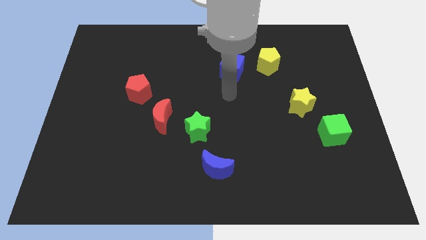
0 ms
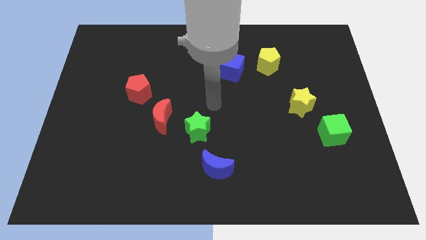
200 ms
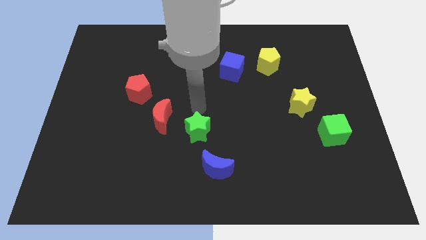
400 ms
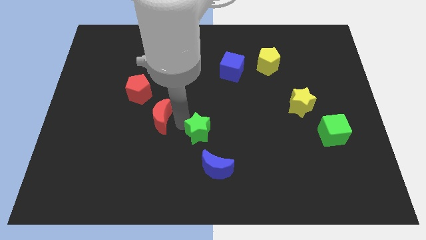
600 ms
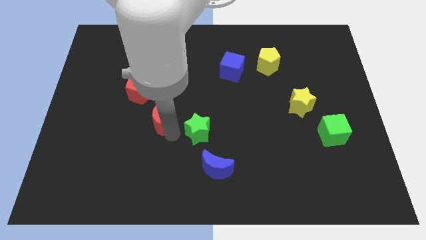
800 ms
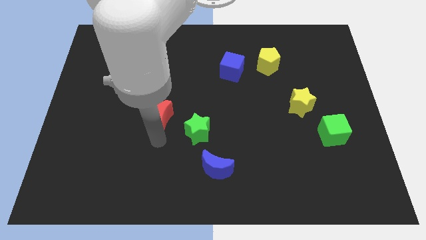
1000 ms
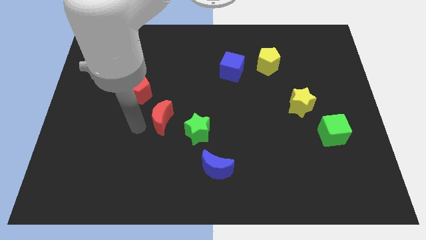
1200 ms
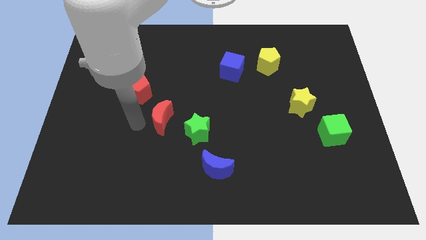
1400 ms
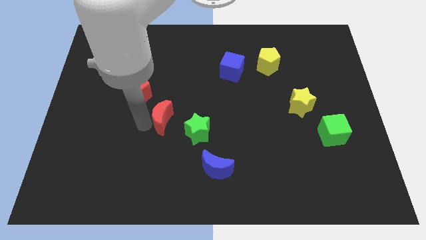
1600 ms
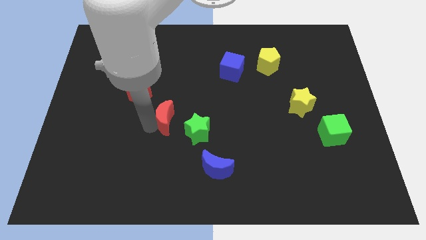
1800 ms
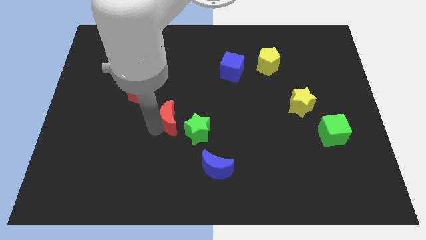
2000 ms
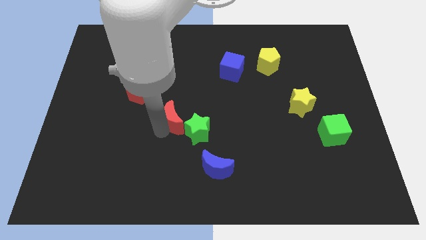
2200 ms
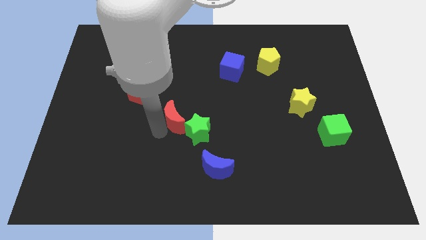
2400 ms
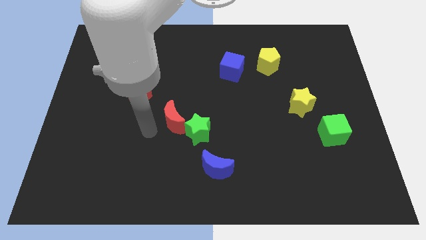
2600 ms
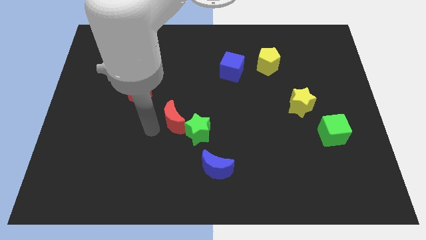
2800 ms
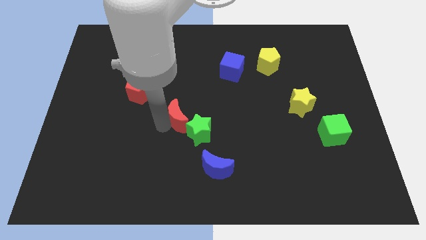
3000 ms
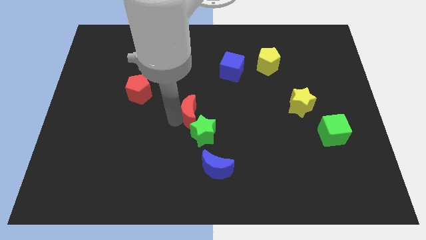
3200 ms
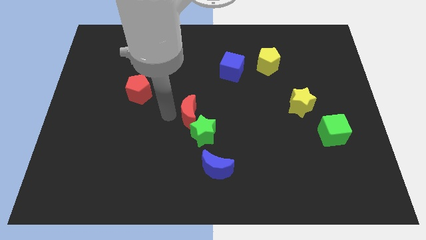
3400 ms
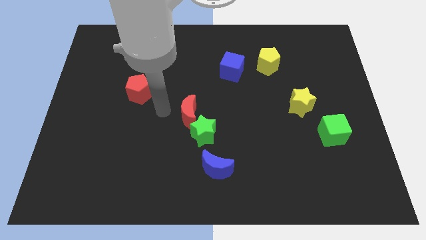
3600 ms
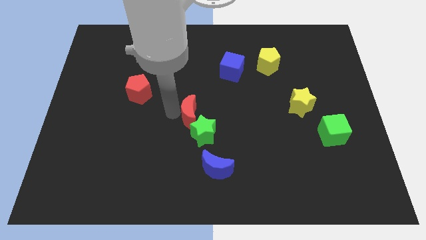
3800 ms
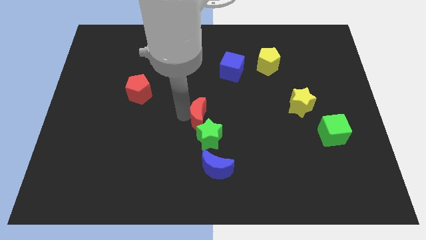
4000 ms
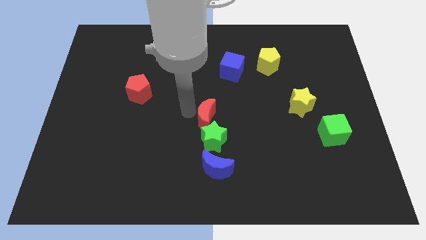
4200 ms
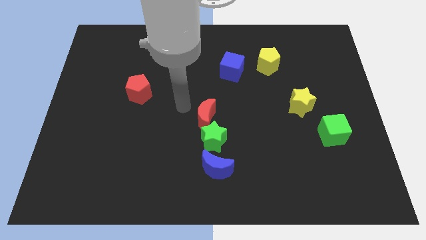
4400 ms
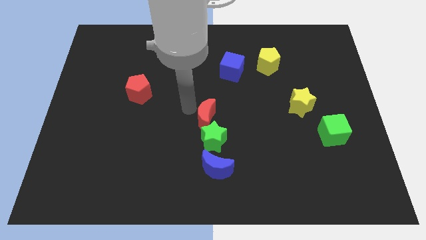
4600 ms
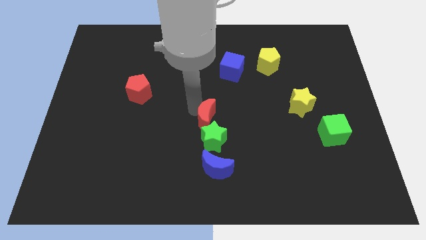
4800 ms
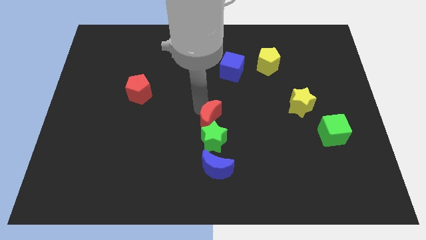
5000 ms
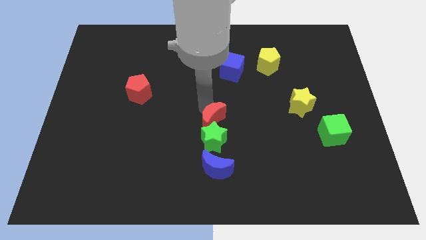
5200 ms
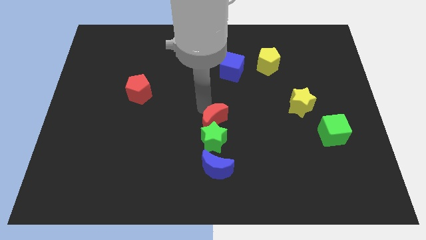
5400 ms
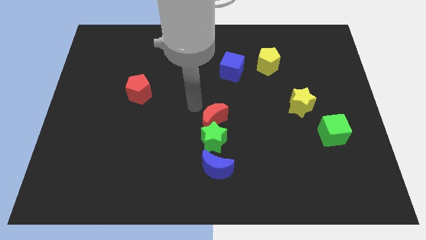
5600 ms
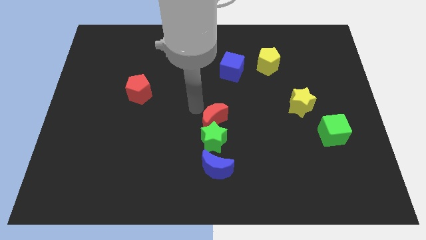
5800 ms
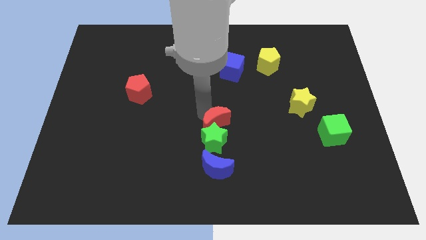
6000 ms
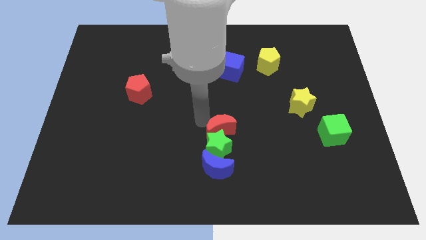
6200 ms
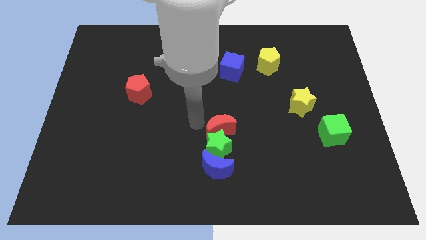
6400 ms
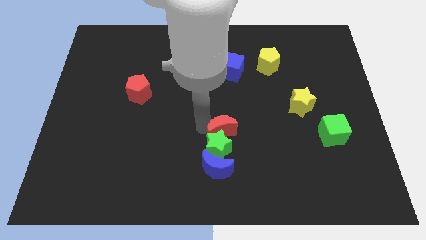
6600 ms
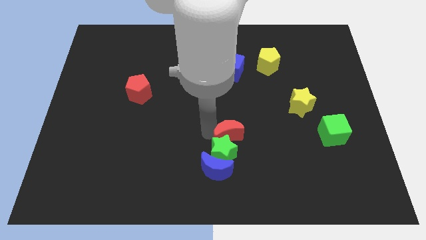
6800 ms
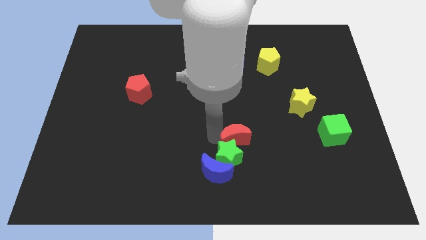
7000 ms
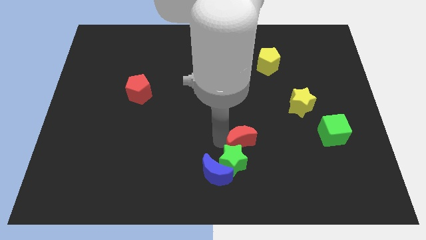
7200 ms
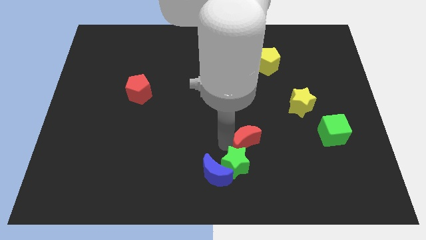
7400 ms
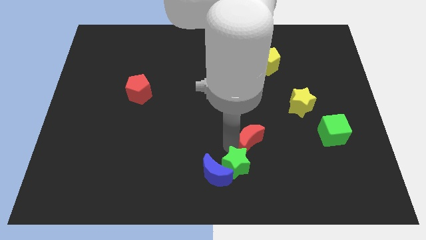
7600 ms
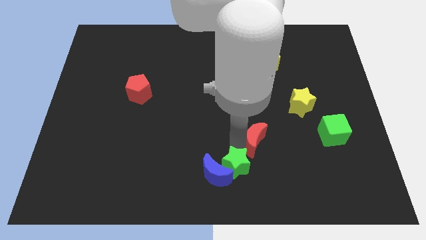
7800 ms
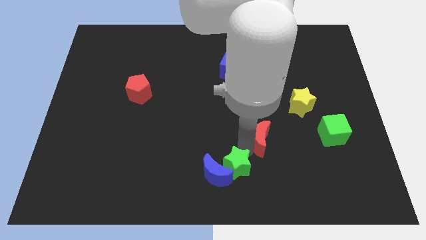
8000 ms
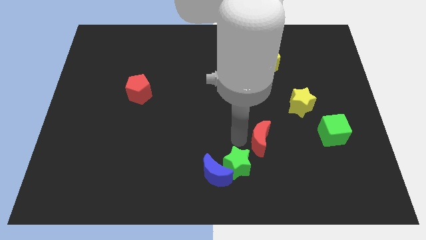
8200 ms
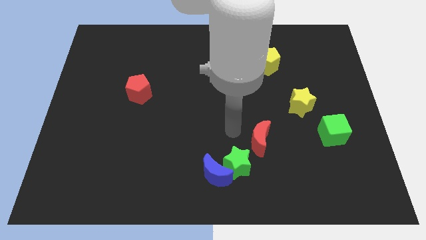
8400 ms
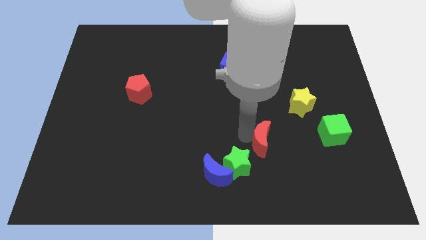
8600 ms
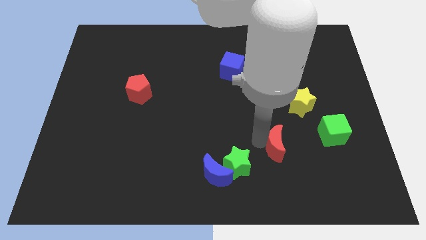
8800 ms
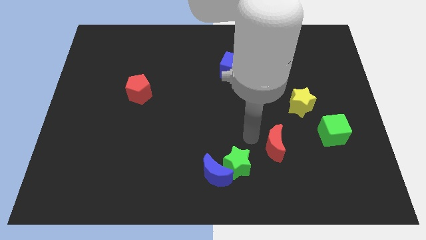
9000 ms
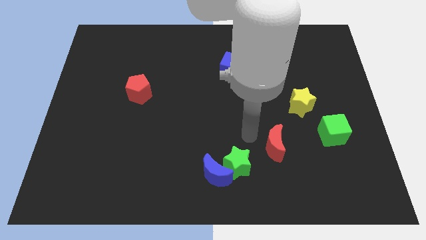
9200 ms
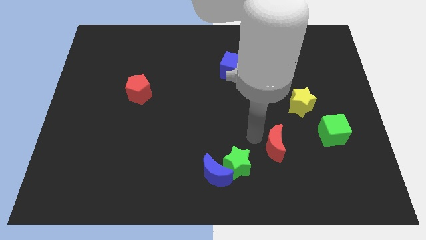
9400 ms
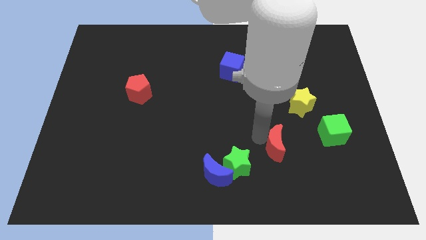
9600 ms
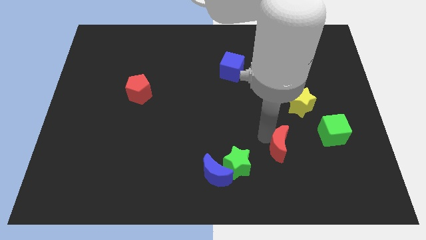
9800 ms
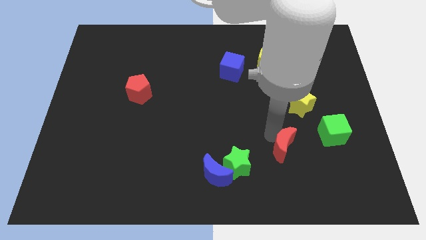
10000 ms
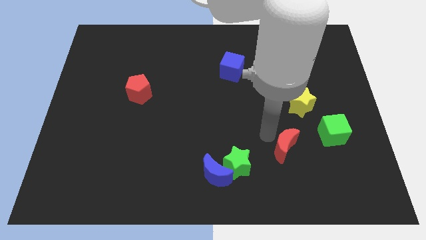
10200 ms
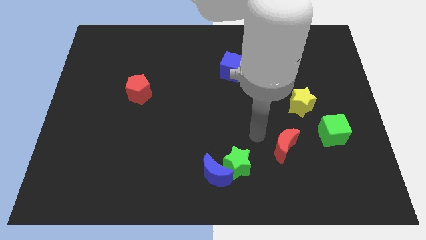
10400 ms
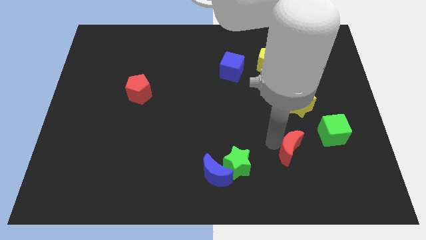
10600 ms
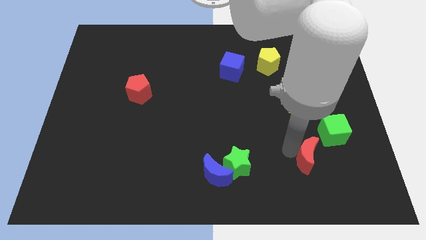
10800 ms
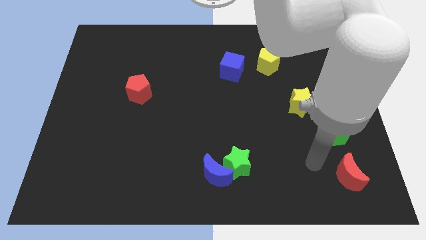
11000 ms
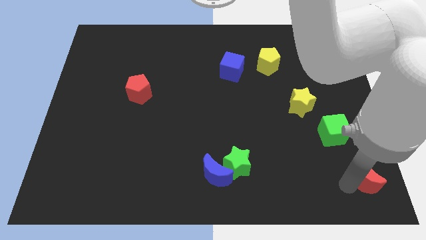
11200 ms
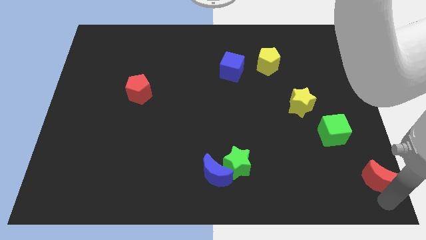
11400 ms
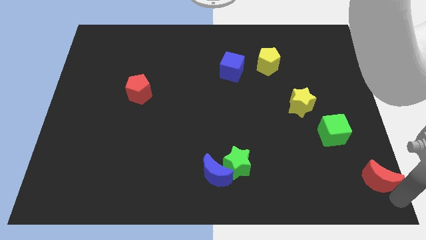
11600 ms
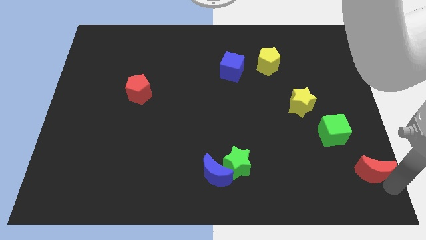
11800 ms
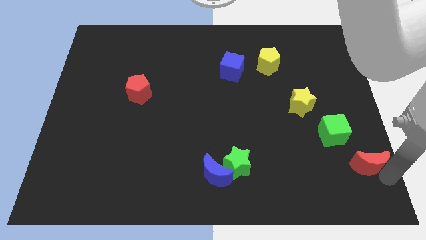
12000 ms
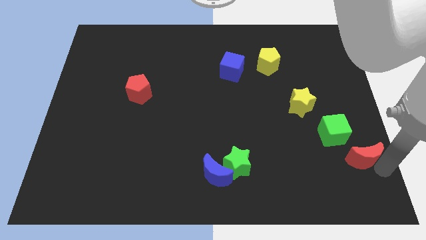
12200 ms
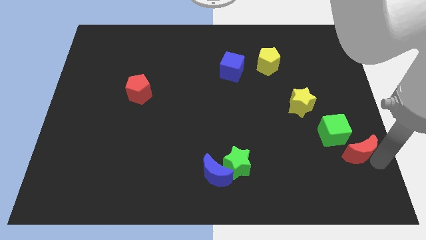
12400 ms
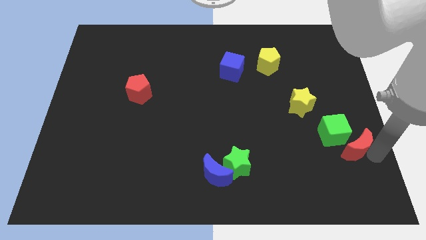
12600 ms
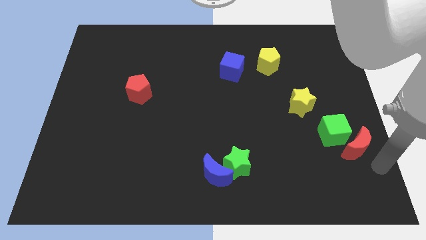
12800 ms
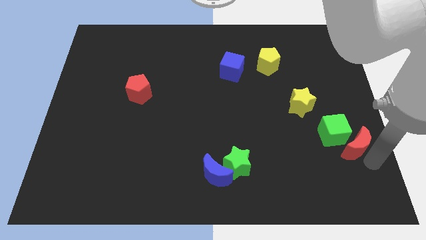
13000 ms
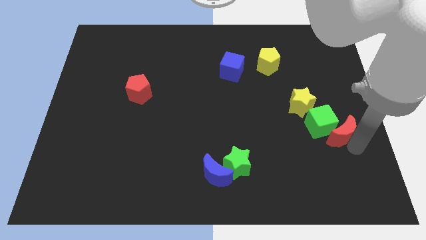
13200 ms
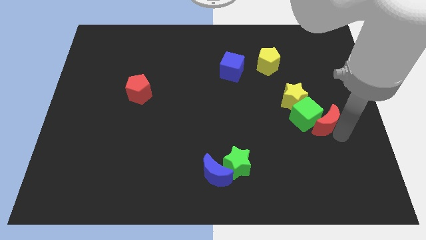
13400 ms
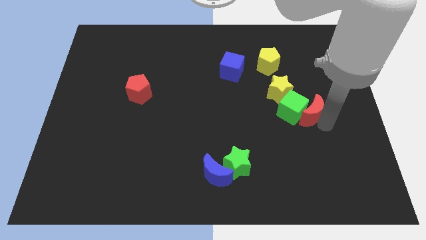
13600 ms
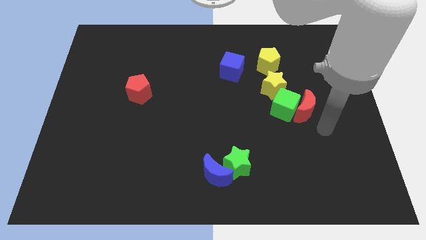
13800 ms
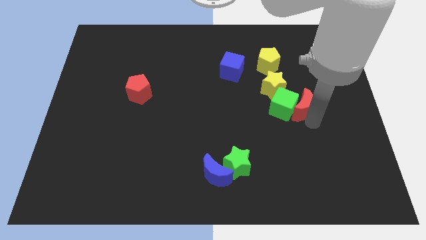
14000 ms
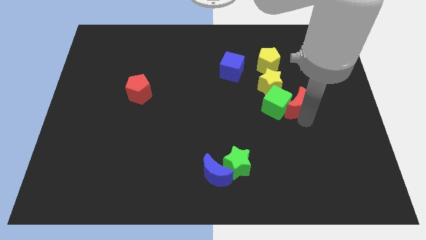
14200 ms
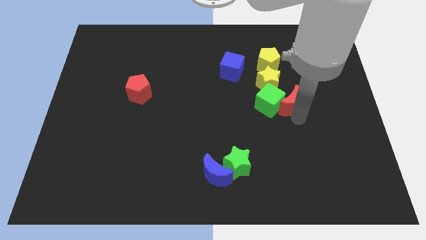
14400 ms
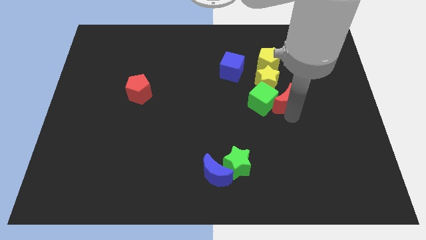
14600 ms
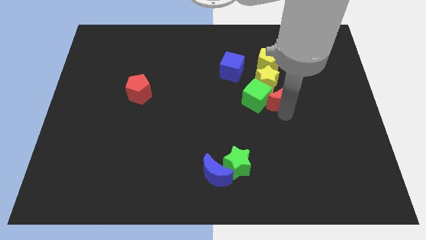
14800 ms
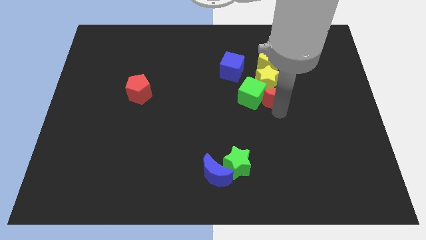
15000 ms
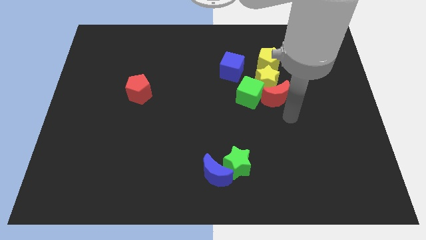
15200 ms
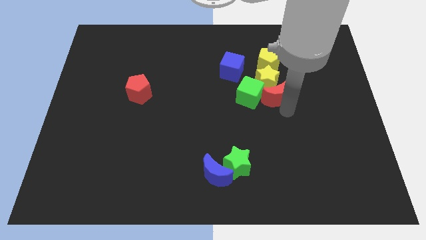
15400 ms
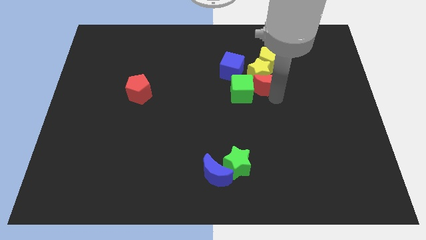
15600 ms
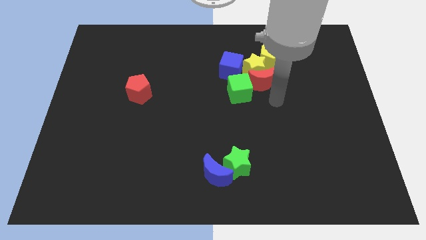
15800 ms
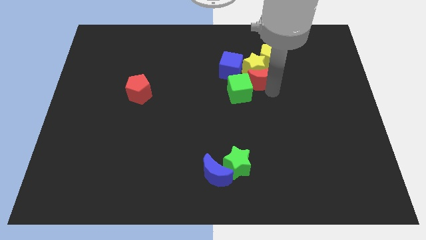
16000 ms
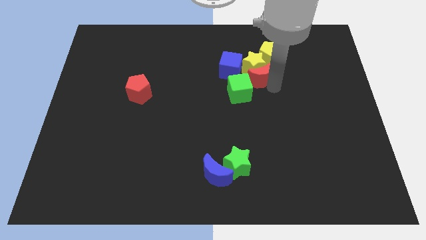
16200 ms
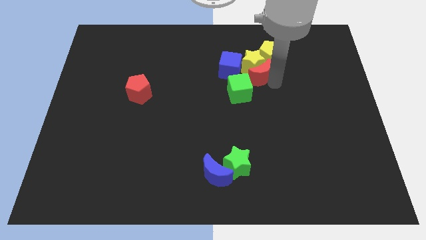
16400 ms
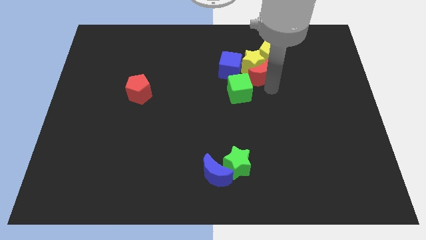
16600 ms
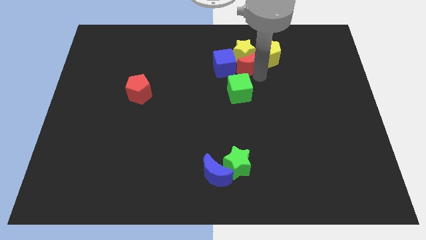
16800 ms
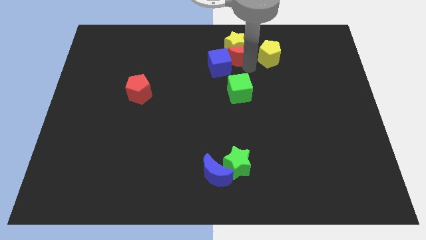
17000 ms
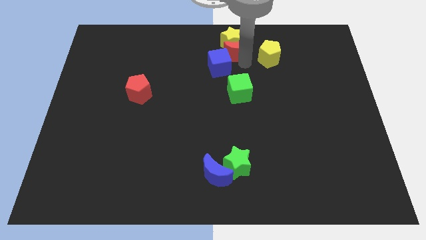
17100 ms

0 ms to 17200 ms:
push the red moon to the towards your base
